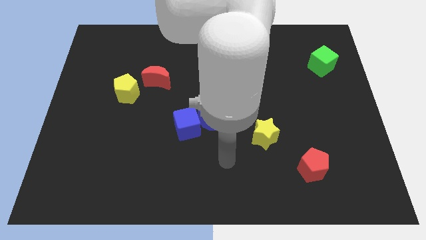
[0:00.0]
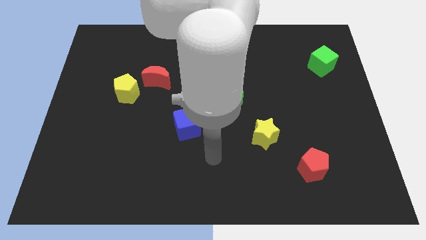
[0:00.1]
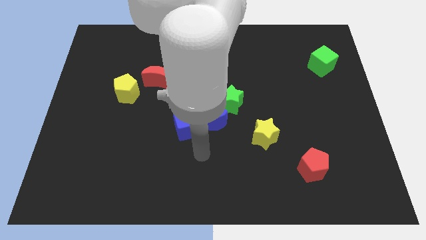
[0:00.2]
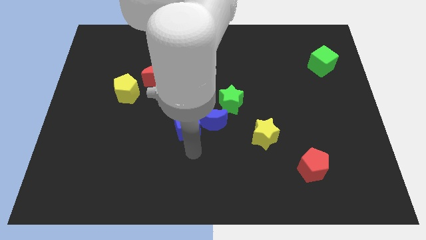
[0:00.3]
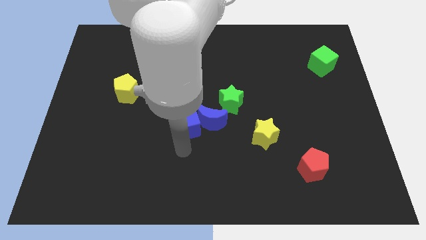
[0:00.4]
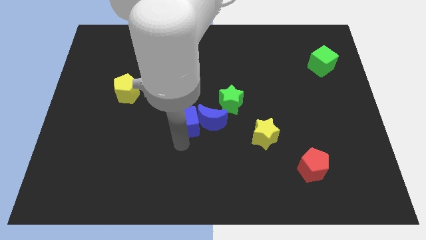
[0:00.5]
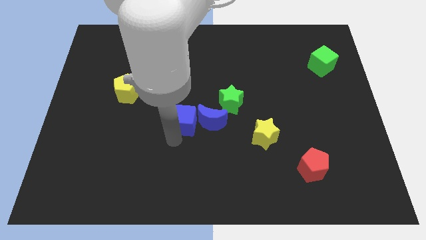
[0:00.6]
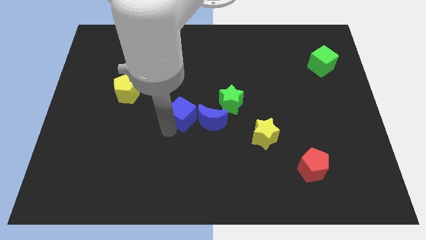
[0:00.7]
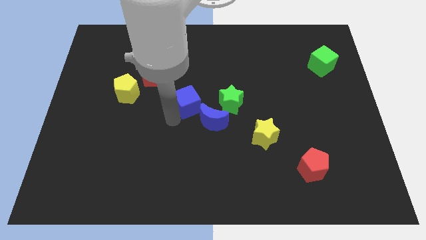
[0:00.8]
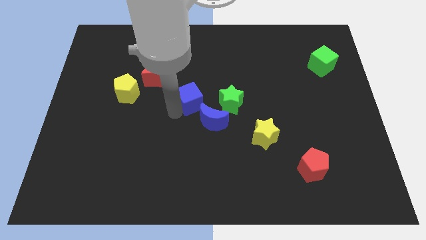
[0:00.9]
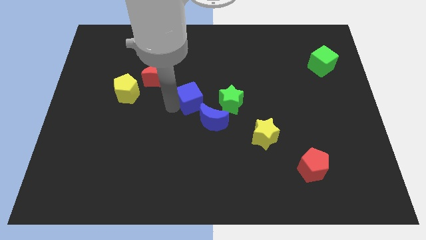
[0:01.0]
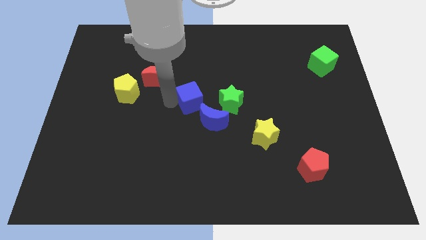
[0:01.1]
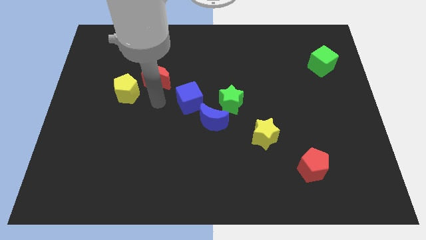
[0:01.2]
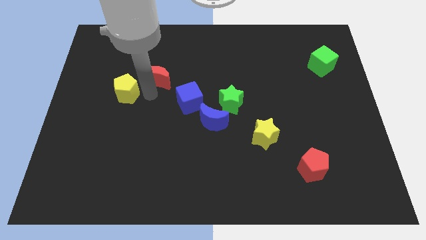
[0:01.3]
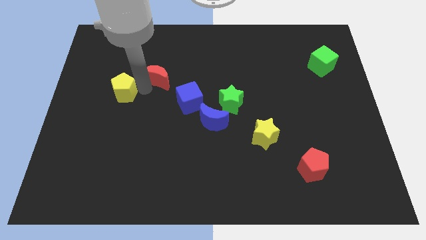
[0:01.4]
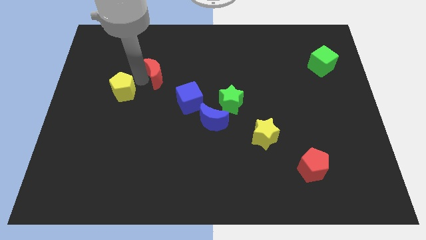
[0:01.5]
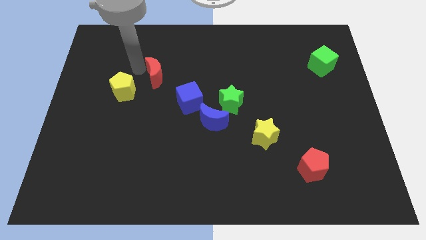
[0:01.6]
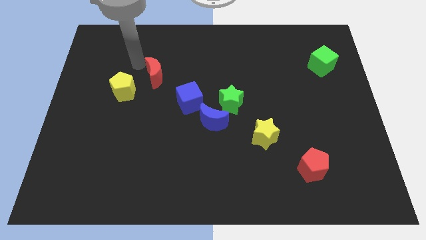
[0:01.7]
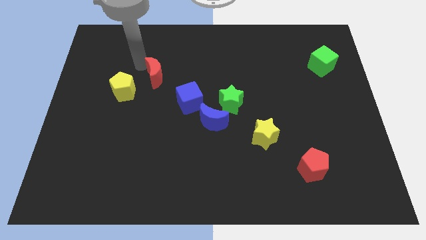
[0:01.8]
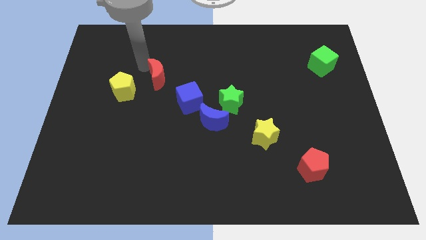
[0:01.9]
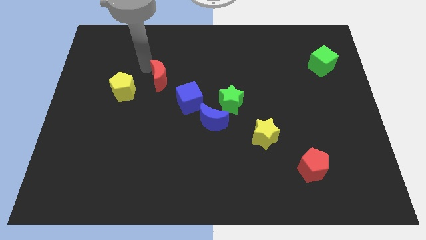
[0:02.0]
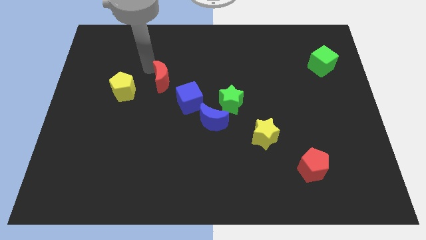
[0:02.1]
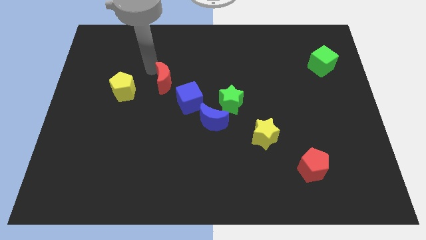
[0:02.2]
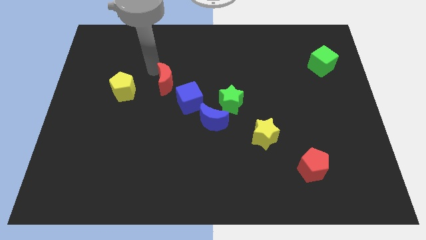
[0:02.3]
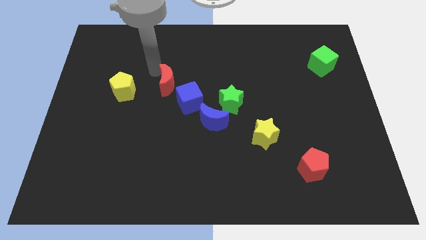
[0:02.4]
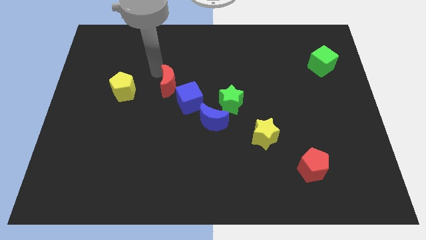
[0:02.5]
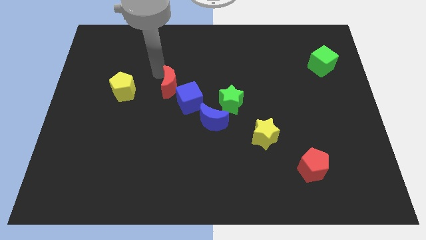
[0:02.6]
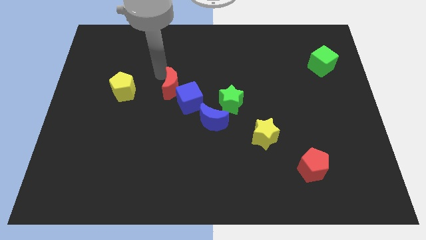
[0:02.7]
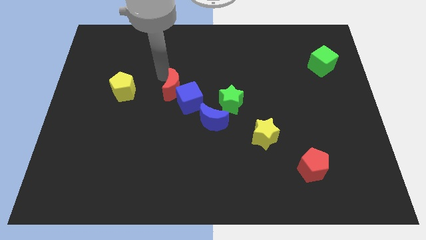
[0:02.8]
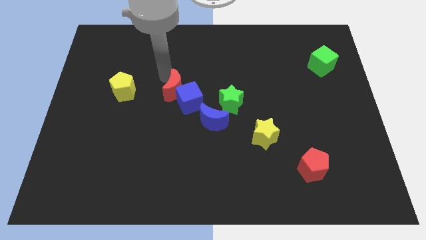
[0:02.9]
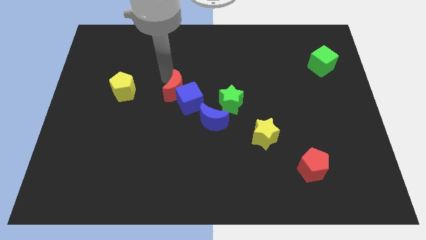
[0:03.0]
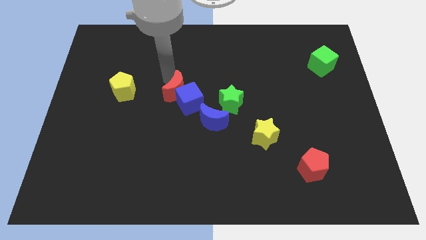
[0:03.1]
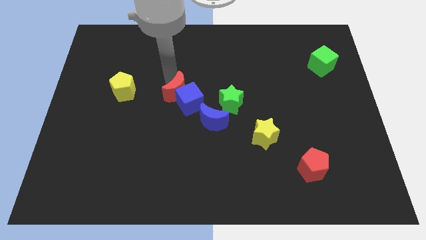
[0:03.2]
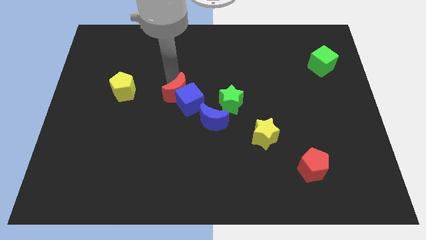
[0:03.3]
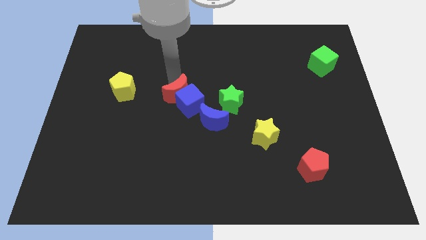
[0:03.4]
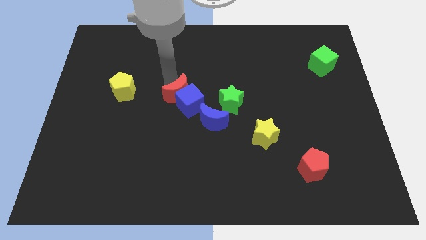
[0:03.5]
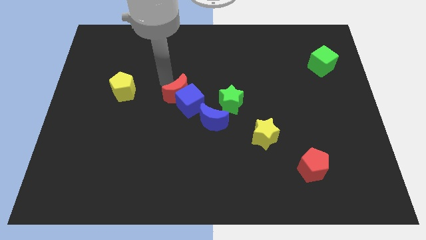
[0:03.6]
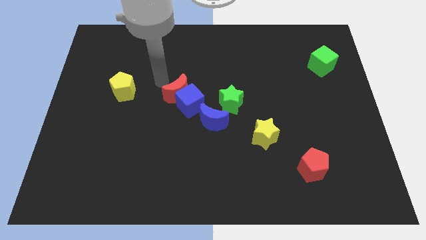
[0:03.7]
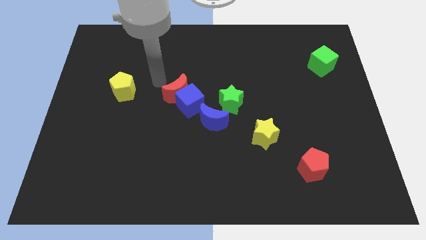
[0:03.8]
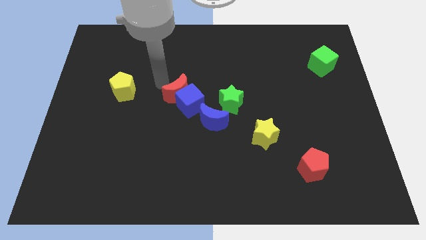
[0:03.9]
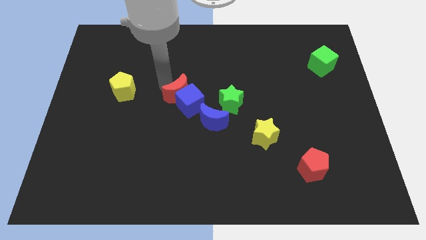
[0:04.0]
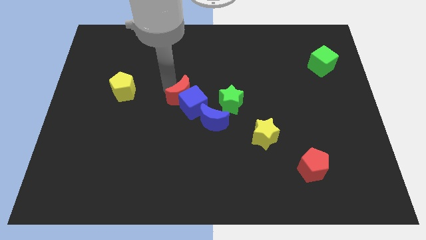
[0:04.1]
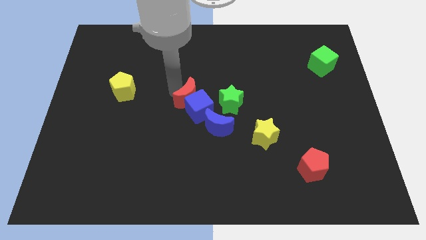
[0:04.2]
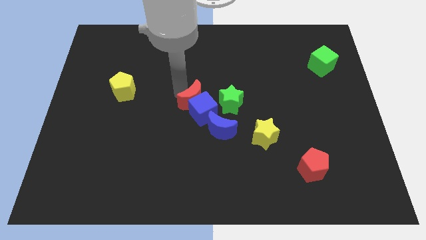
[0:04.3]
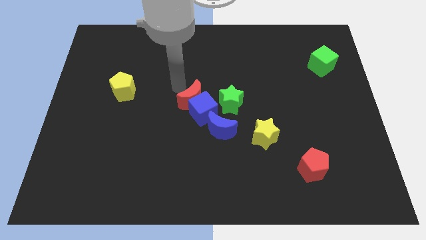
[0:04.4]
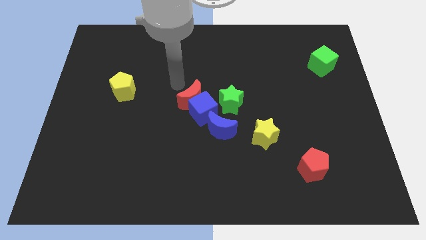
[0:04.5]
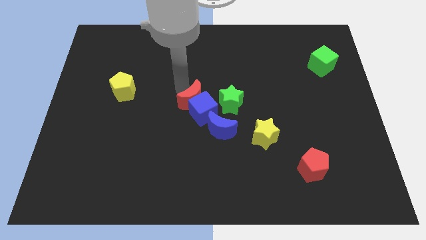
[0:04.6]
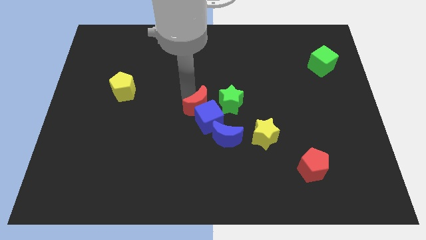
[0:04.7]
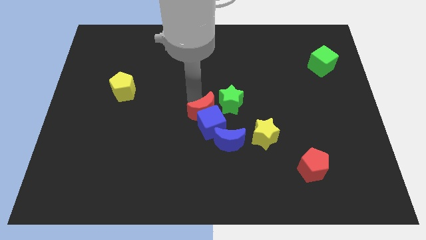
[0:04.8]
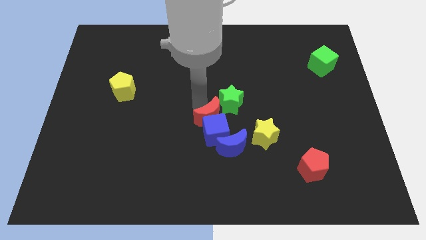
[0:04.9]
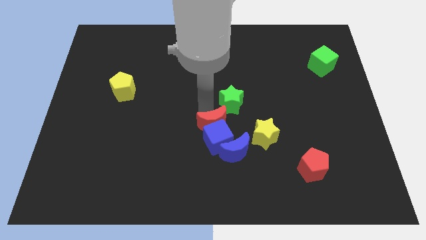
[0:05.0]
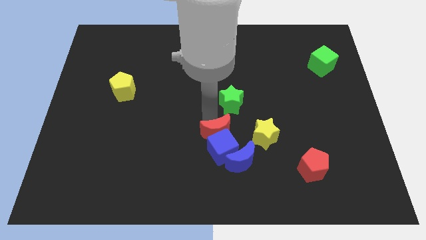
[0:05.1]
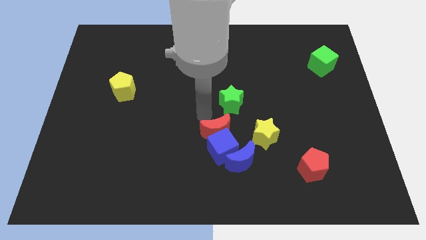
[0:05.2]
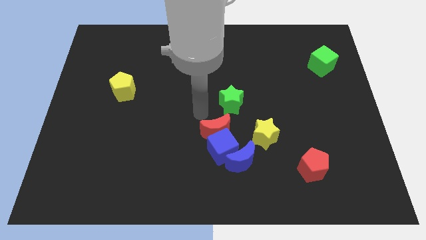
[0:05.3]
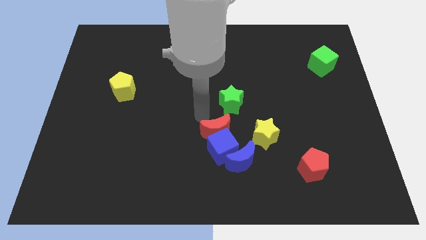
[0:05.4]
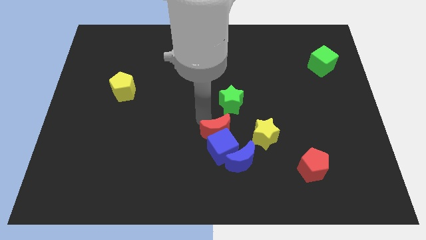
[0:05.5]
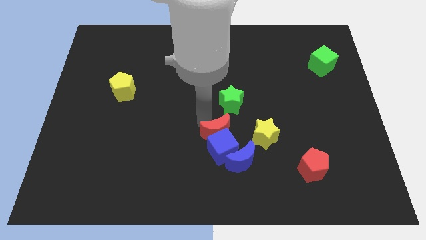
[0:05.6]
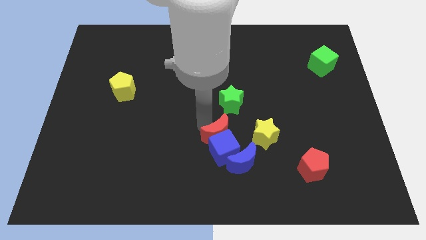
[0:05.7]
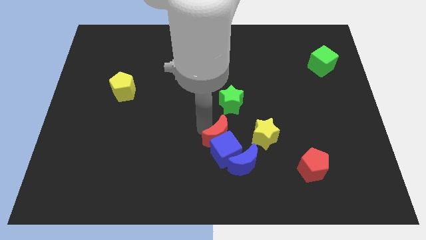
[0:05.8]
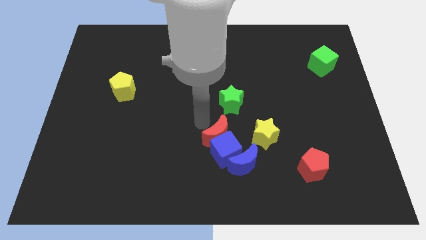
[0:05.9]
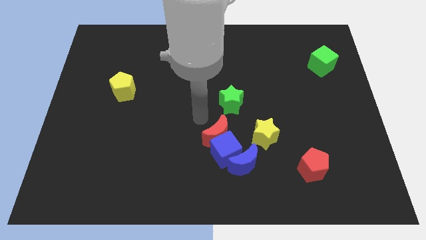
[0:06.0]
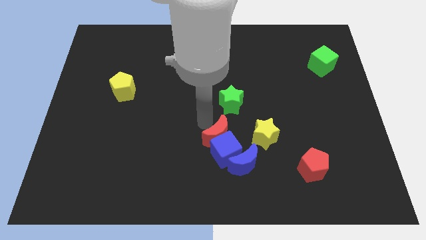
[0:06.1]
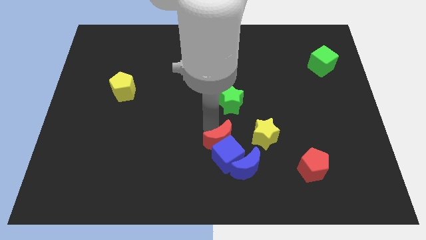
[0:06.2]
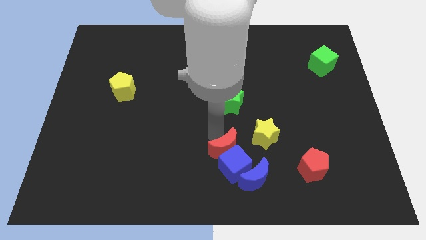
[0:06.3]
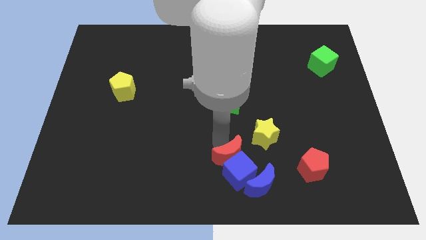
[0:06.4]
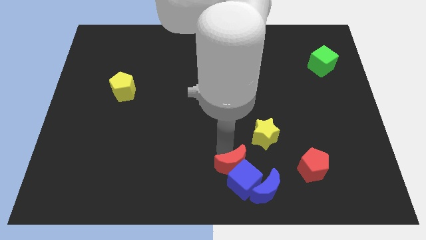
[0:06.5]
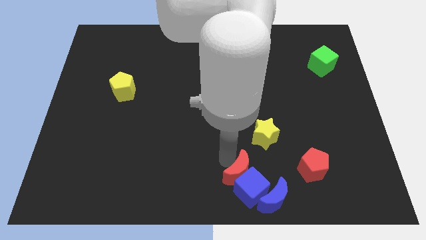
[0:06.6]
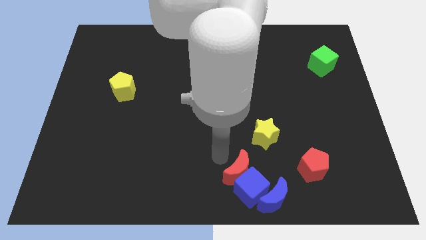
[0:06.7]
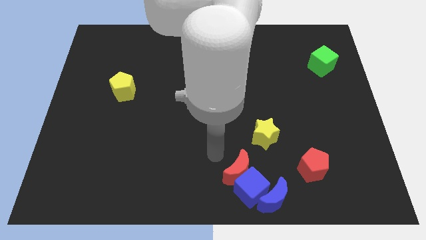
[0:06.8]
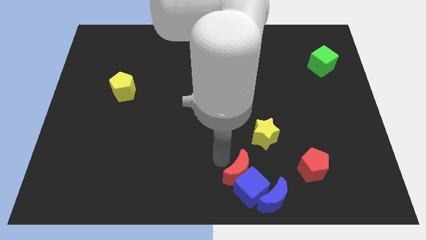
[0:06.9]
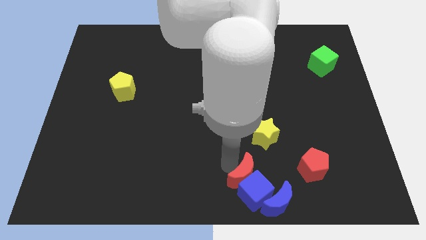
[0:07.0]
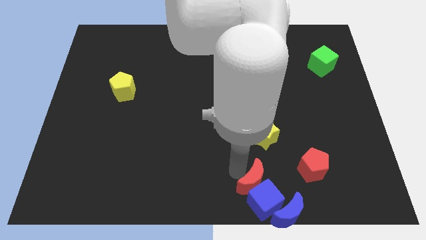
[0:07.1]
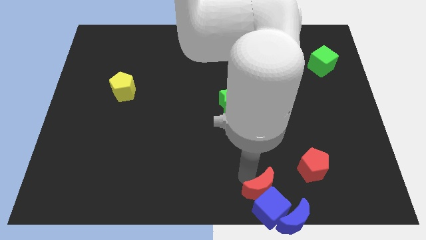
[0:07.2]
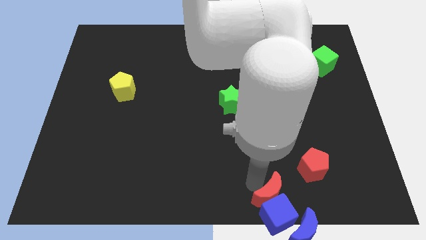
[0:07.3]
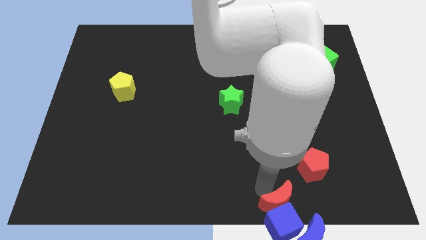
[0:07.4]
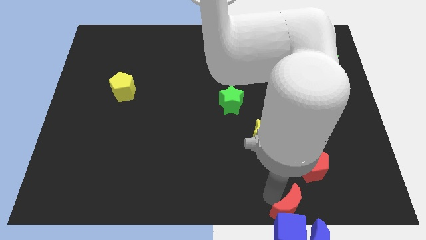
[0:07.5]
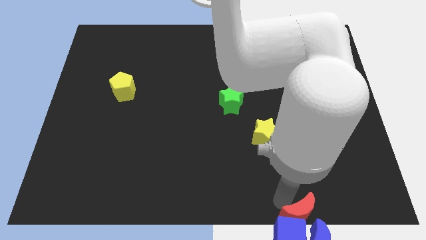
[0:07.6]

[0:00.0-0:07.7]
put the red moon close to the blue moon
